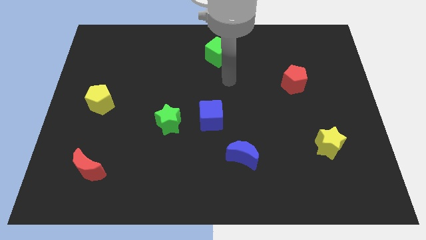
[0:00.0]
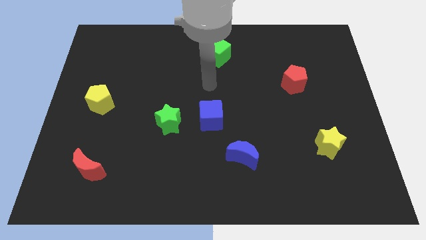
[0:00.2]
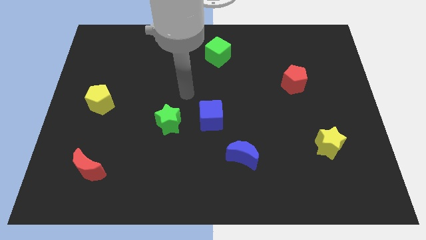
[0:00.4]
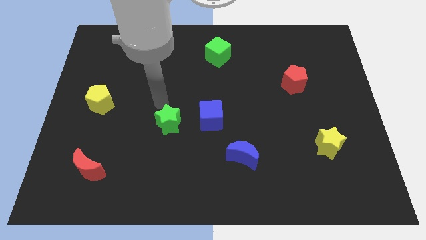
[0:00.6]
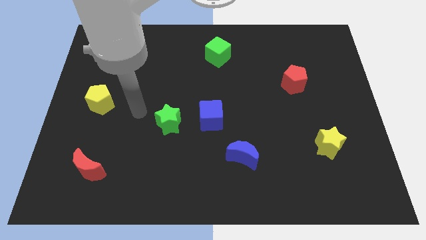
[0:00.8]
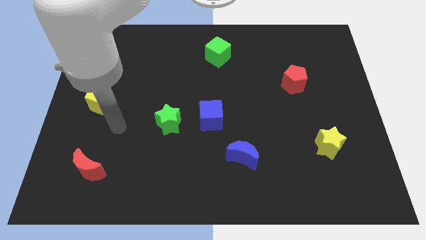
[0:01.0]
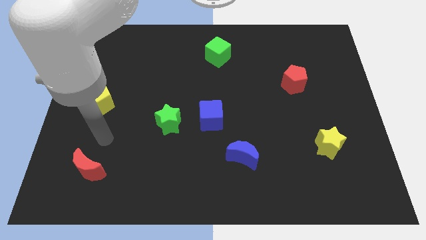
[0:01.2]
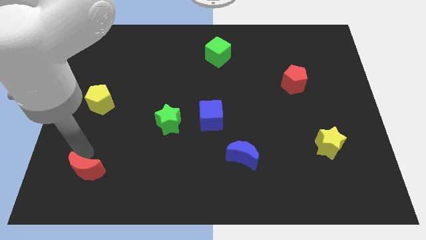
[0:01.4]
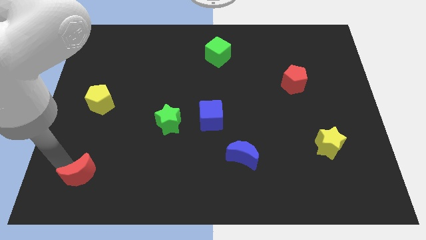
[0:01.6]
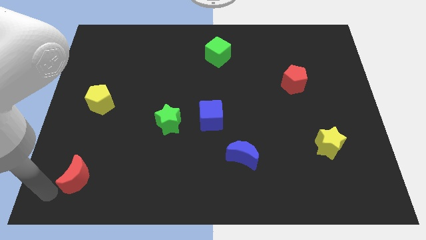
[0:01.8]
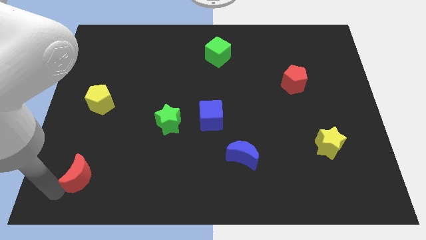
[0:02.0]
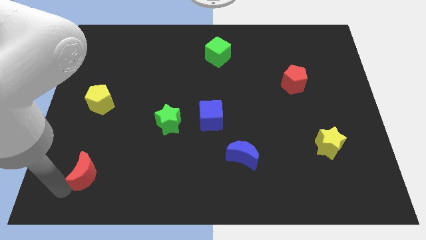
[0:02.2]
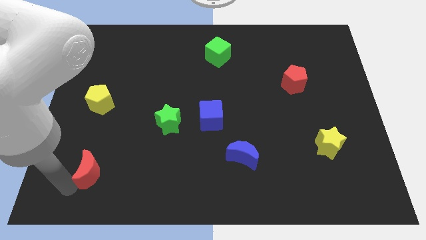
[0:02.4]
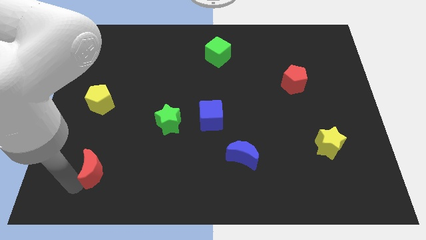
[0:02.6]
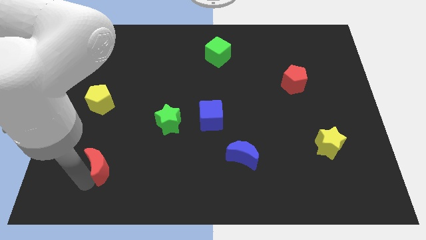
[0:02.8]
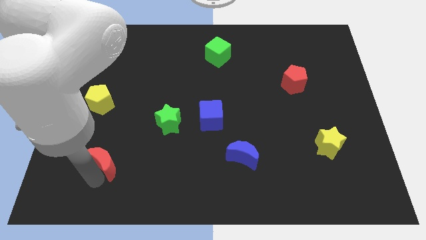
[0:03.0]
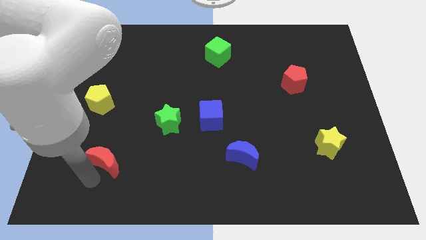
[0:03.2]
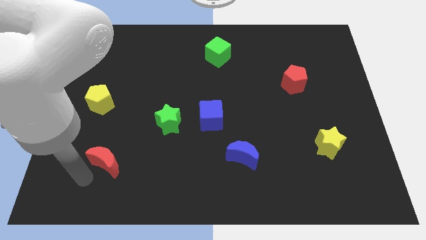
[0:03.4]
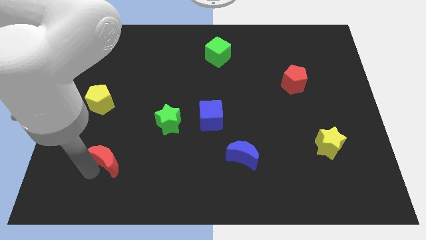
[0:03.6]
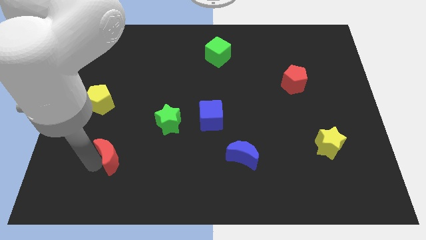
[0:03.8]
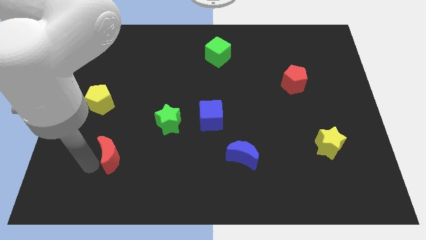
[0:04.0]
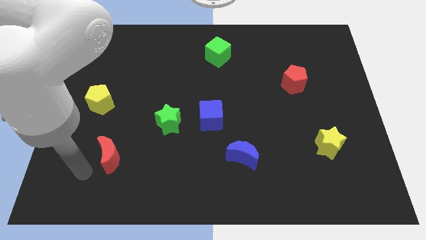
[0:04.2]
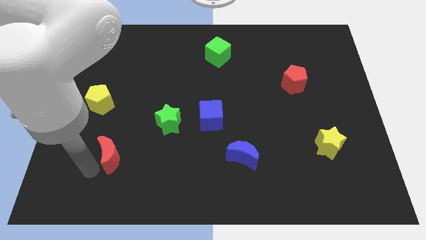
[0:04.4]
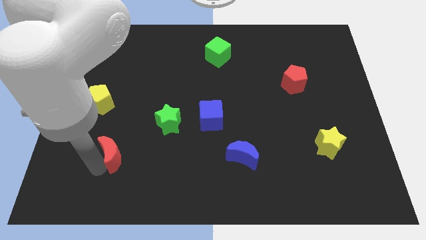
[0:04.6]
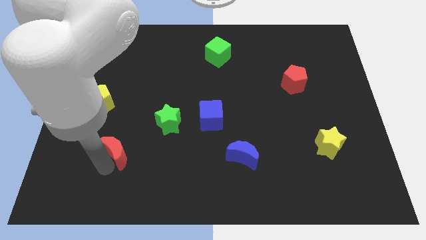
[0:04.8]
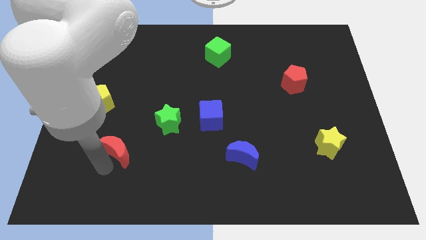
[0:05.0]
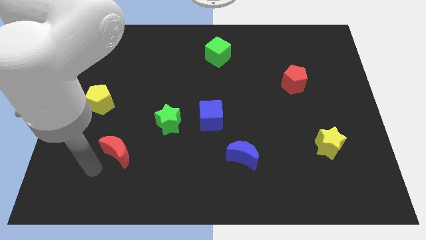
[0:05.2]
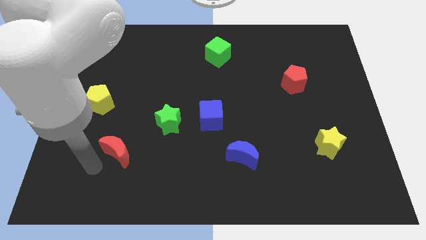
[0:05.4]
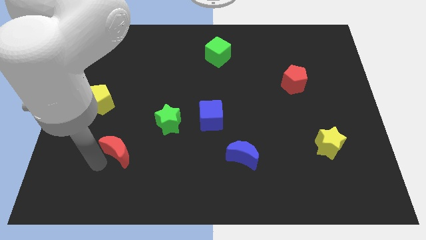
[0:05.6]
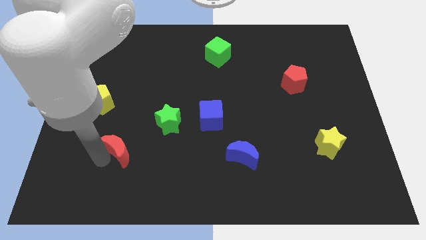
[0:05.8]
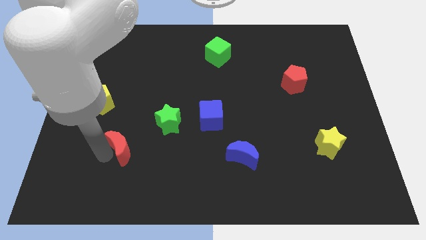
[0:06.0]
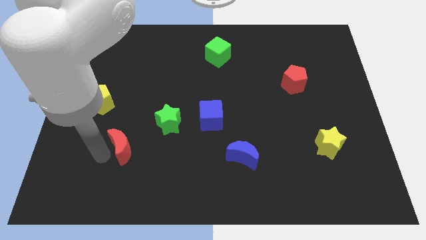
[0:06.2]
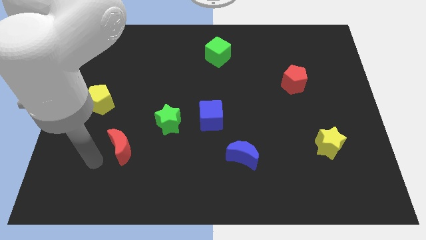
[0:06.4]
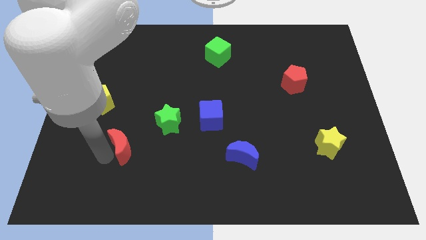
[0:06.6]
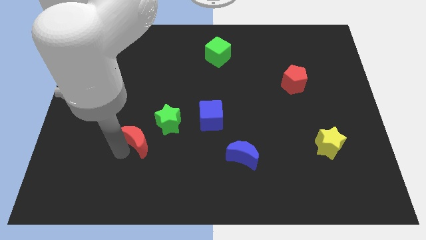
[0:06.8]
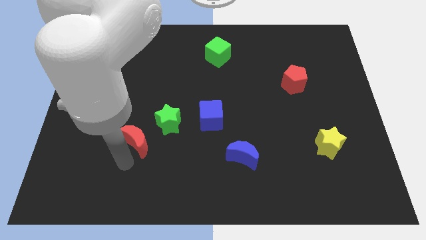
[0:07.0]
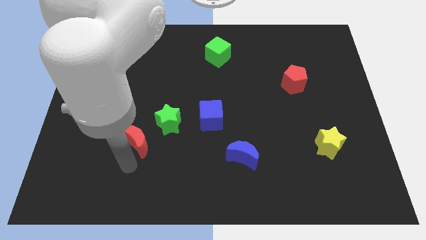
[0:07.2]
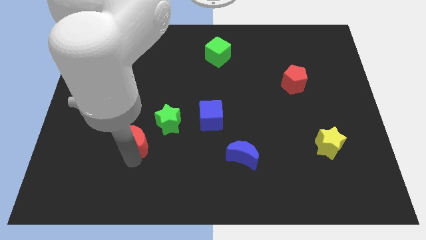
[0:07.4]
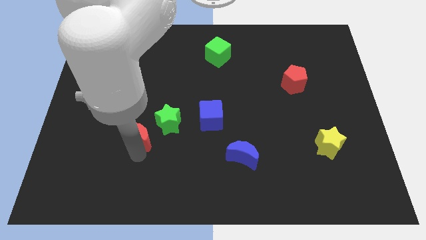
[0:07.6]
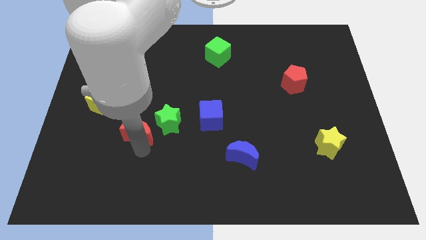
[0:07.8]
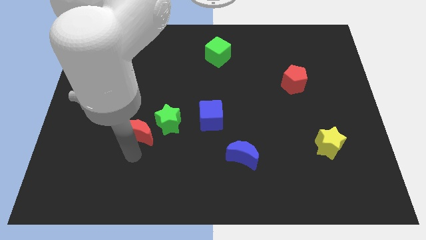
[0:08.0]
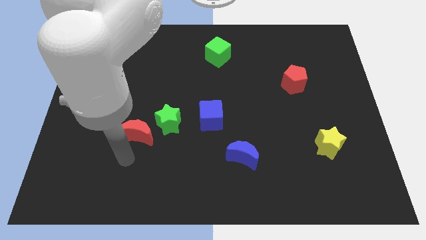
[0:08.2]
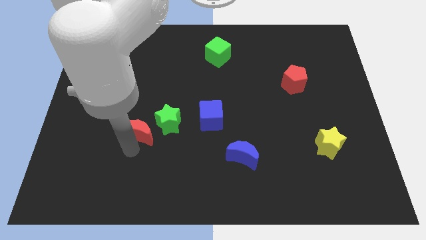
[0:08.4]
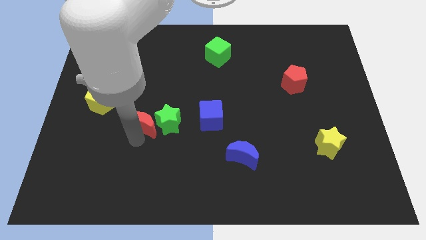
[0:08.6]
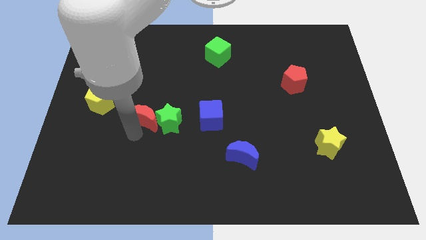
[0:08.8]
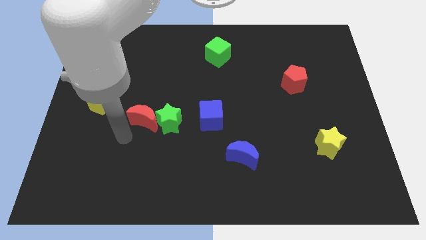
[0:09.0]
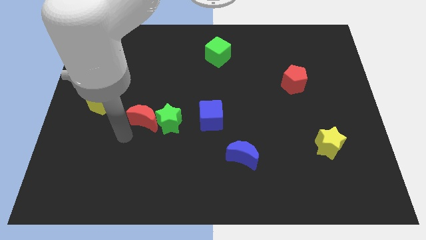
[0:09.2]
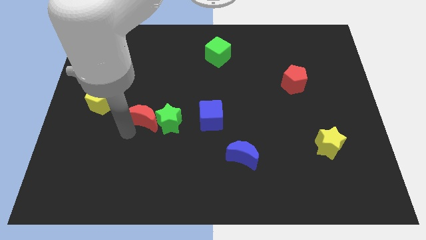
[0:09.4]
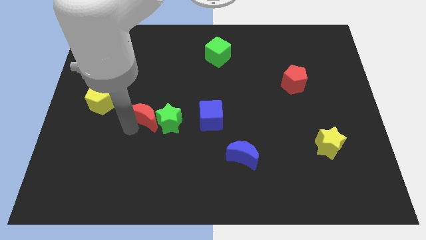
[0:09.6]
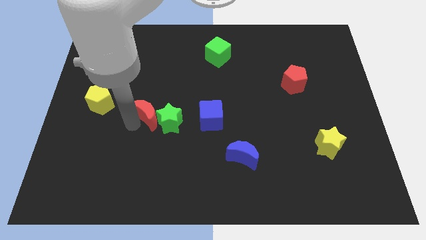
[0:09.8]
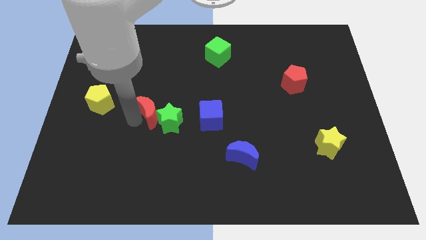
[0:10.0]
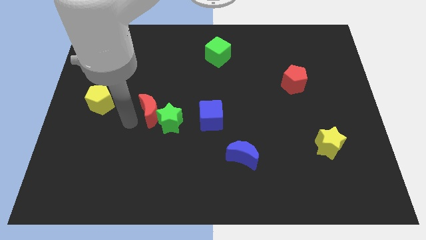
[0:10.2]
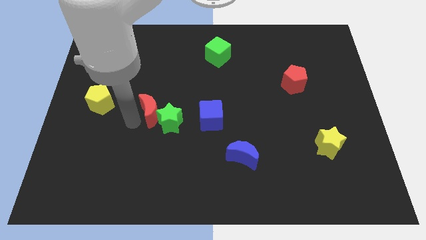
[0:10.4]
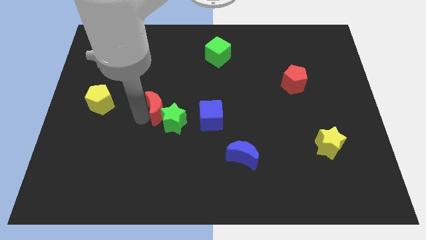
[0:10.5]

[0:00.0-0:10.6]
slide the red moon upwards and to the right diagonally

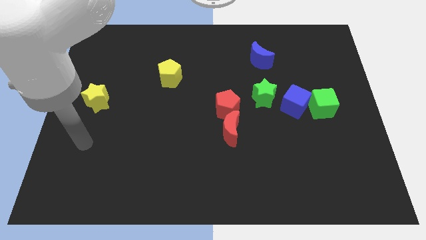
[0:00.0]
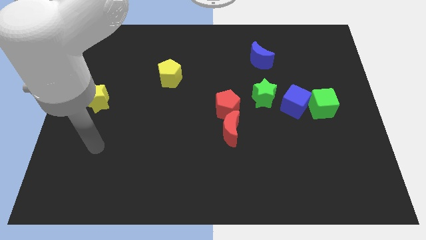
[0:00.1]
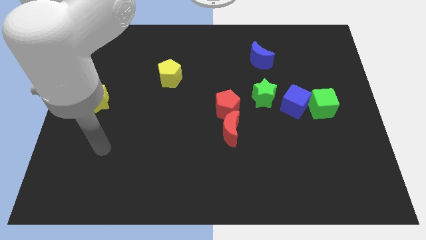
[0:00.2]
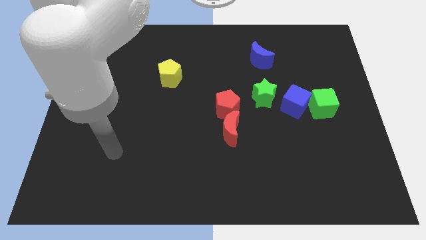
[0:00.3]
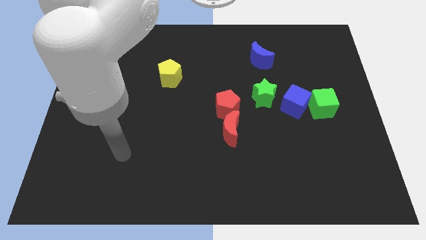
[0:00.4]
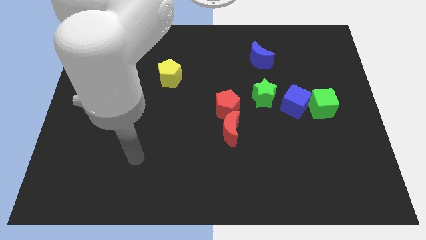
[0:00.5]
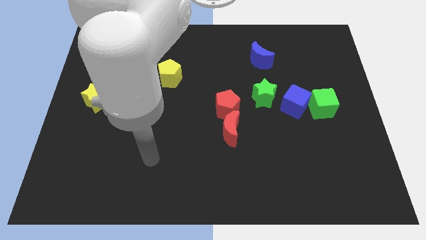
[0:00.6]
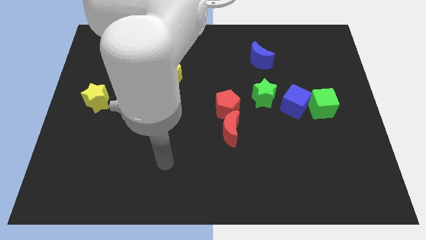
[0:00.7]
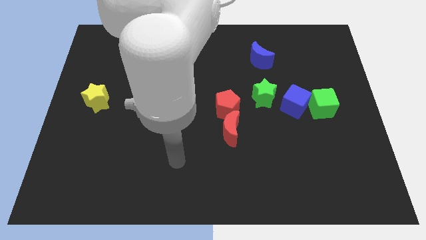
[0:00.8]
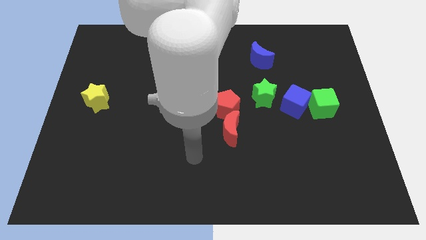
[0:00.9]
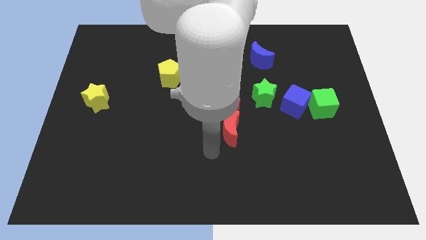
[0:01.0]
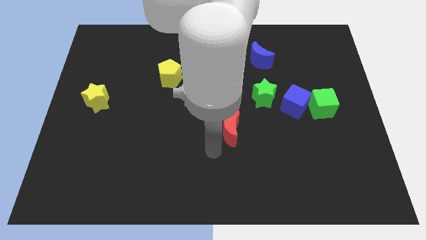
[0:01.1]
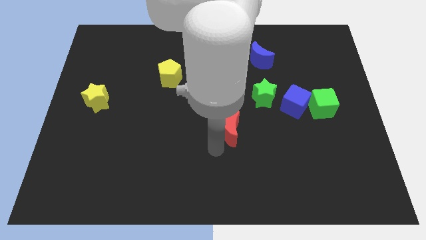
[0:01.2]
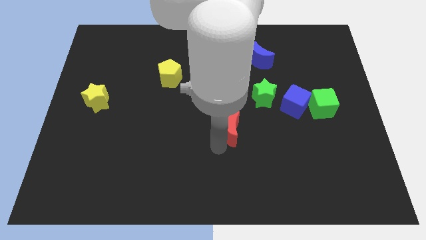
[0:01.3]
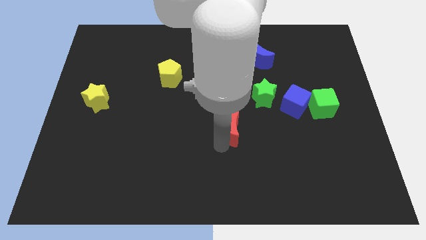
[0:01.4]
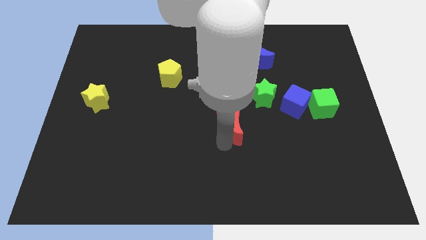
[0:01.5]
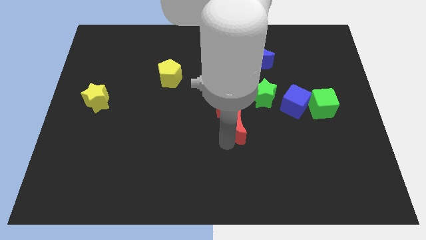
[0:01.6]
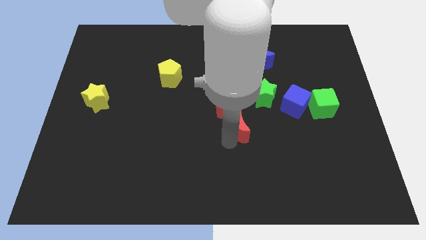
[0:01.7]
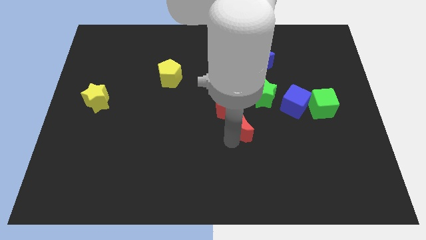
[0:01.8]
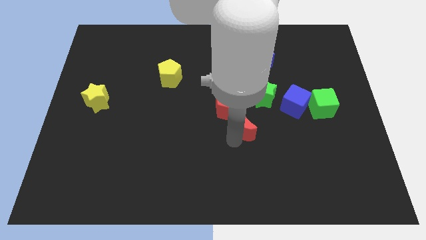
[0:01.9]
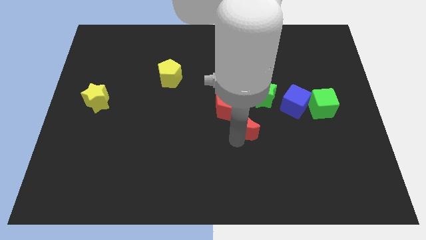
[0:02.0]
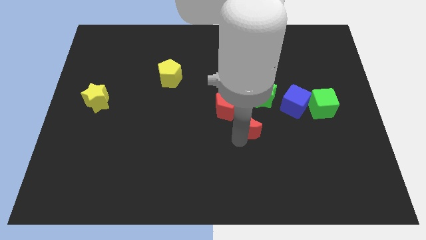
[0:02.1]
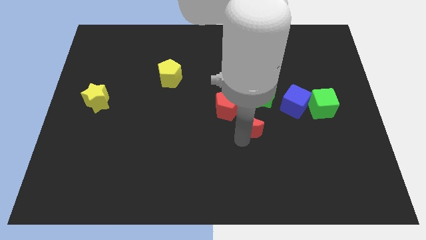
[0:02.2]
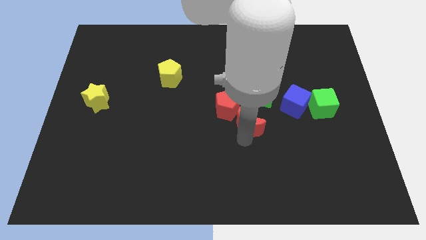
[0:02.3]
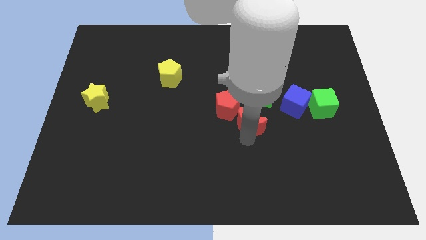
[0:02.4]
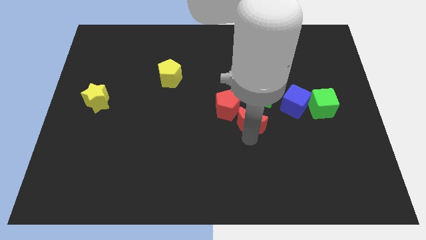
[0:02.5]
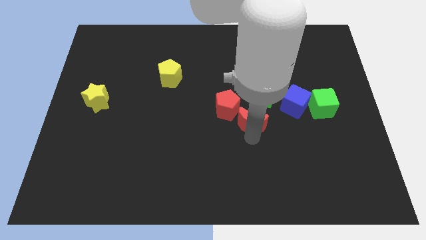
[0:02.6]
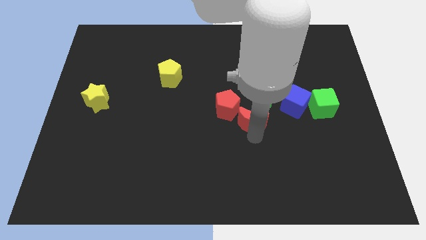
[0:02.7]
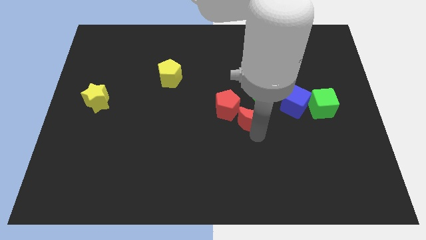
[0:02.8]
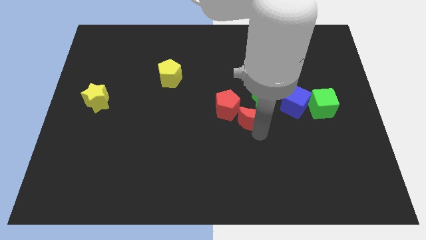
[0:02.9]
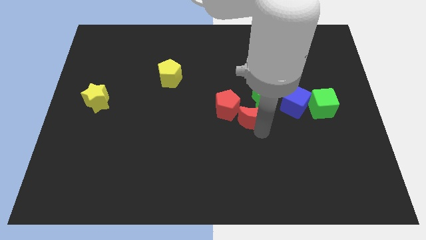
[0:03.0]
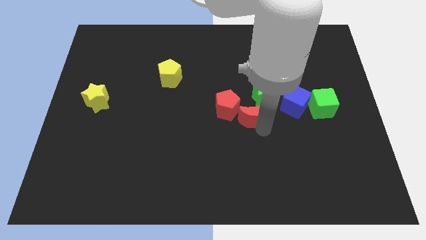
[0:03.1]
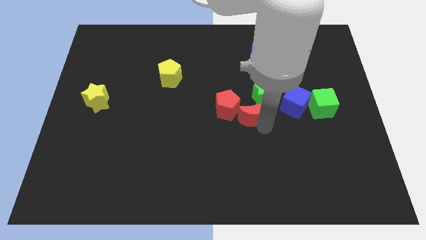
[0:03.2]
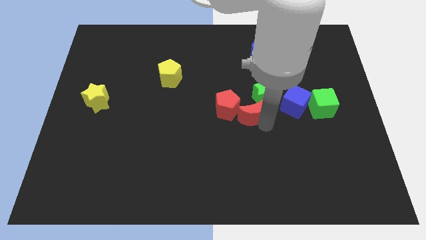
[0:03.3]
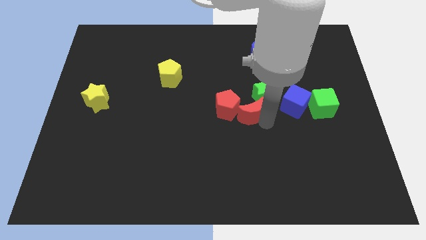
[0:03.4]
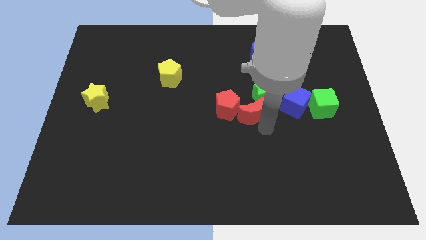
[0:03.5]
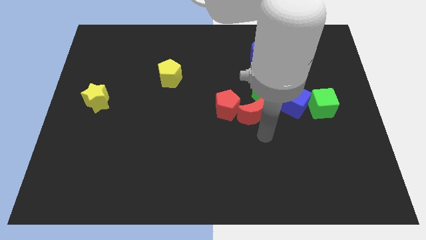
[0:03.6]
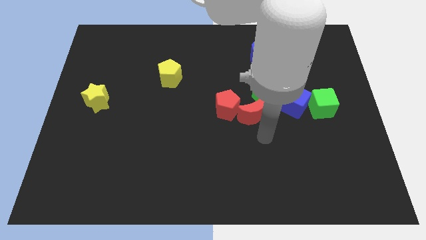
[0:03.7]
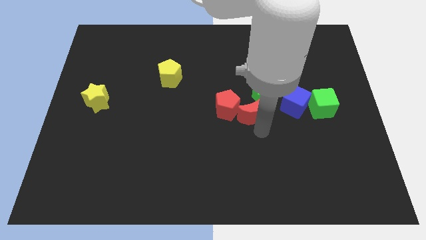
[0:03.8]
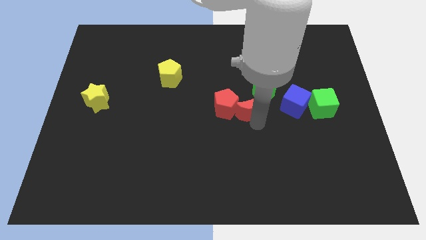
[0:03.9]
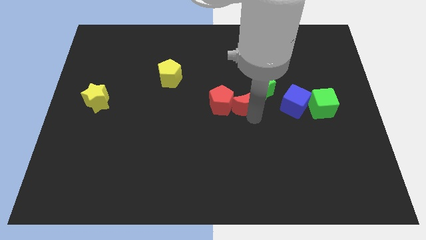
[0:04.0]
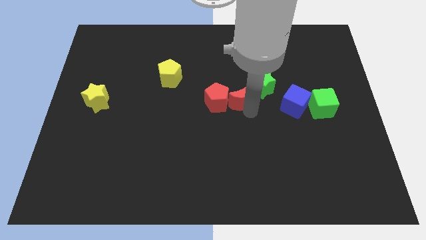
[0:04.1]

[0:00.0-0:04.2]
slide the red moon upwards somewhat
